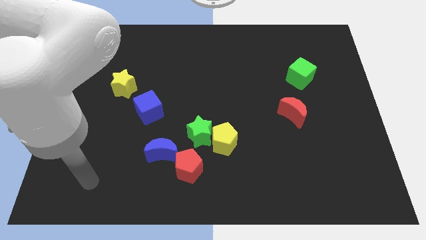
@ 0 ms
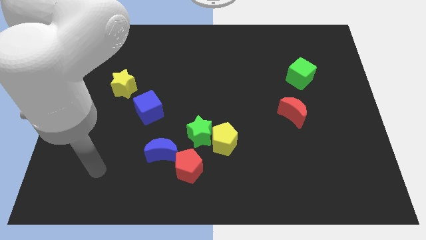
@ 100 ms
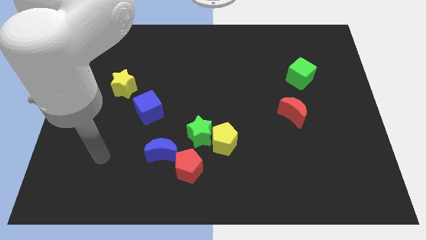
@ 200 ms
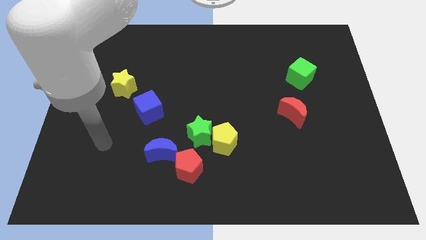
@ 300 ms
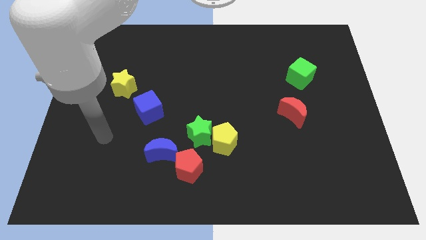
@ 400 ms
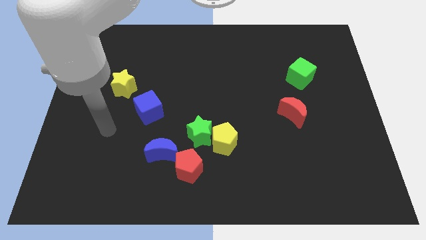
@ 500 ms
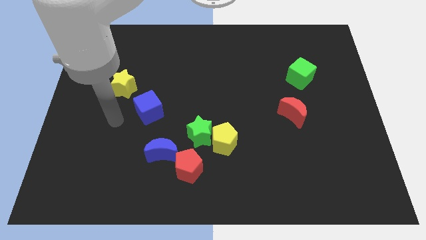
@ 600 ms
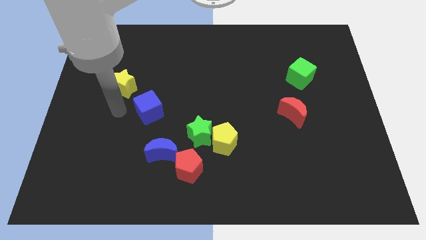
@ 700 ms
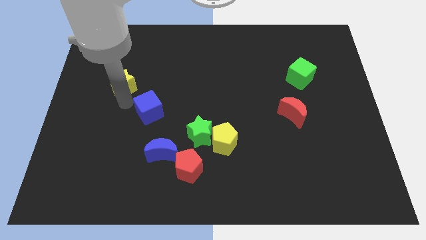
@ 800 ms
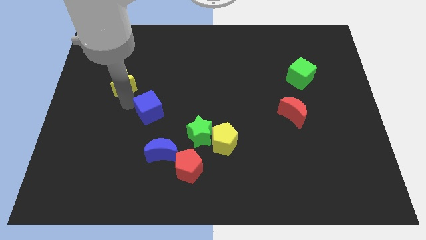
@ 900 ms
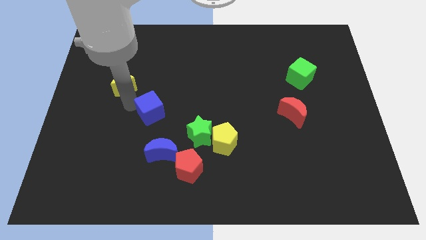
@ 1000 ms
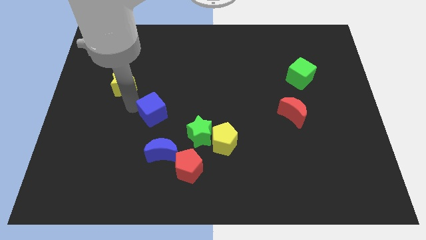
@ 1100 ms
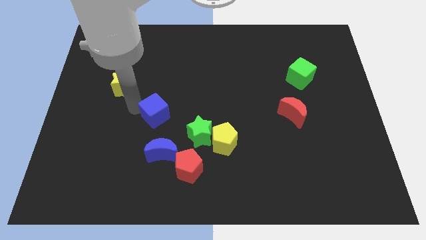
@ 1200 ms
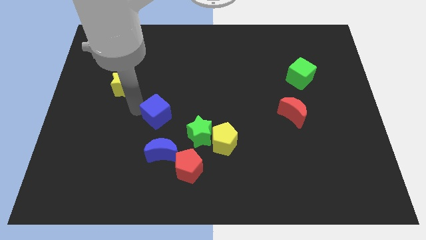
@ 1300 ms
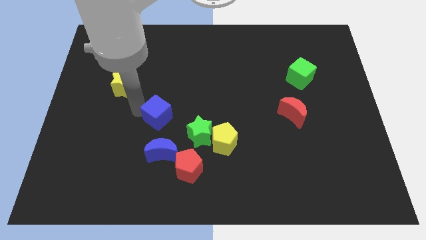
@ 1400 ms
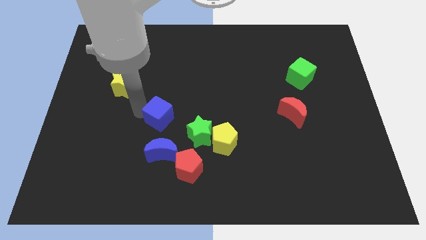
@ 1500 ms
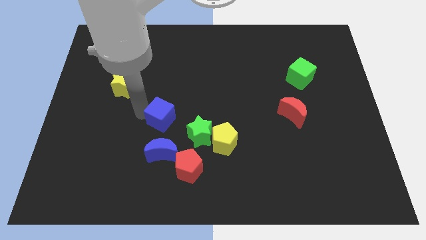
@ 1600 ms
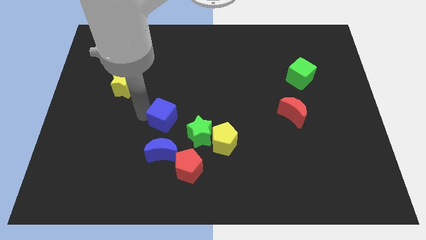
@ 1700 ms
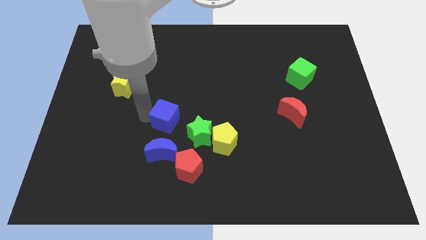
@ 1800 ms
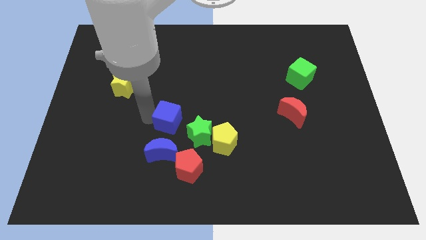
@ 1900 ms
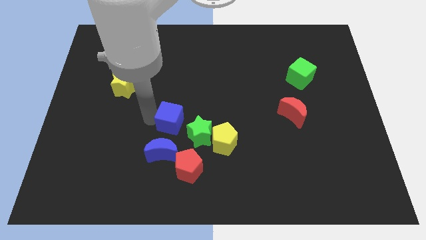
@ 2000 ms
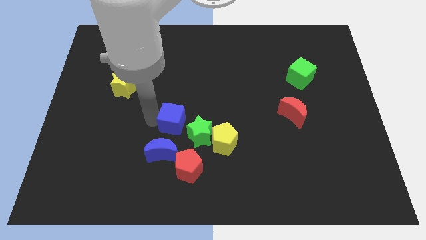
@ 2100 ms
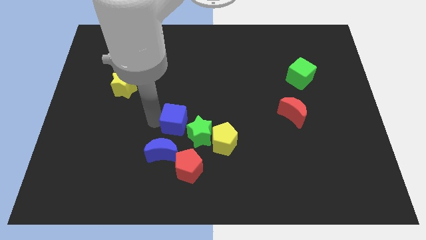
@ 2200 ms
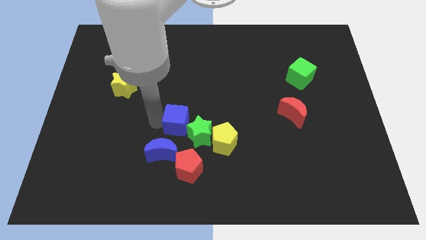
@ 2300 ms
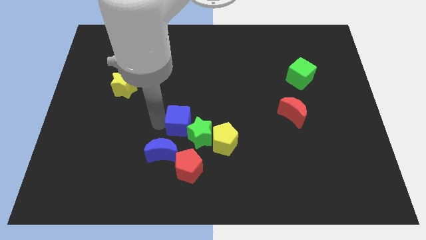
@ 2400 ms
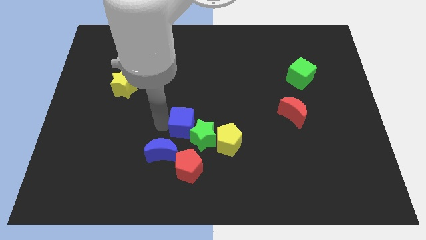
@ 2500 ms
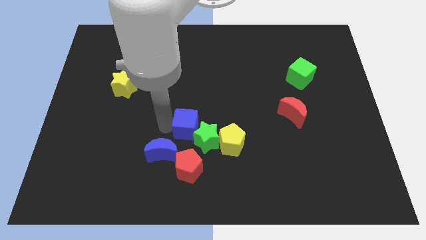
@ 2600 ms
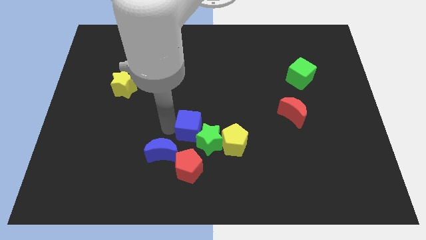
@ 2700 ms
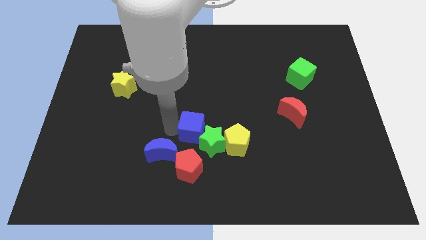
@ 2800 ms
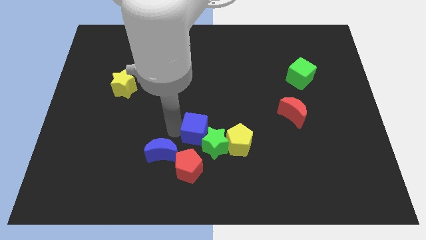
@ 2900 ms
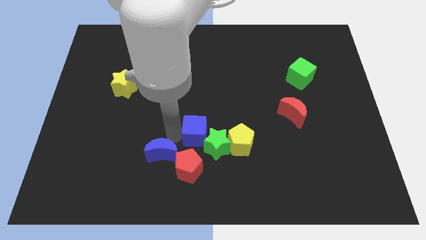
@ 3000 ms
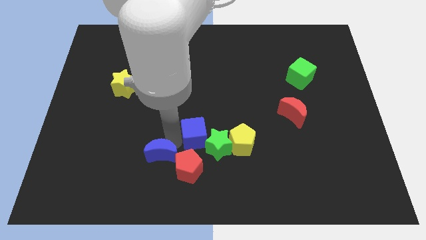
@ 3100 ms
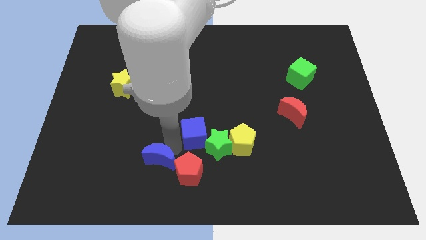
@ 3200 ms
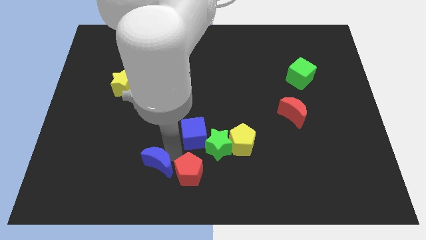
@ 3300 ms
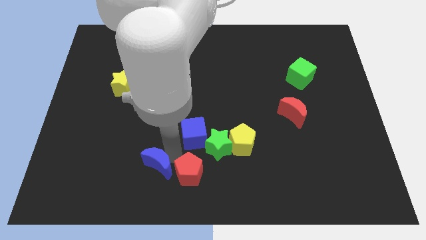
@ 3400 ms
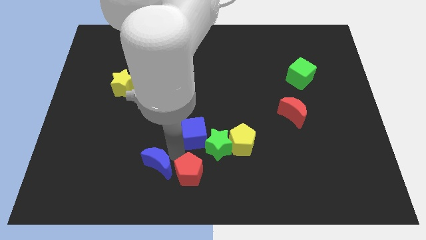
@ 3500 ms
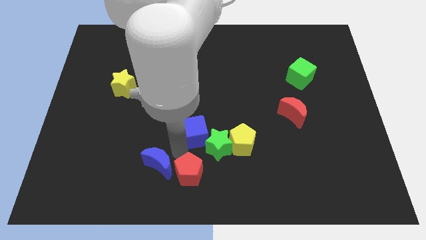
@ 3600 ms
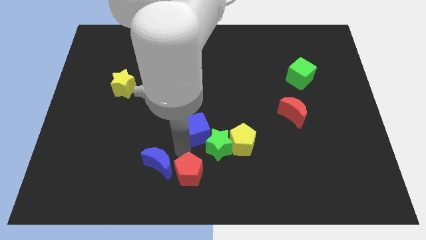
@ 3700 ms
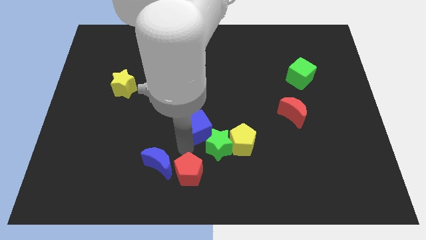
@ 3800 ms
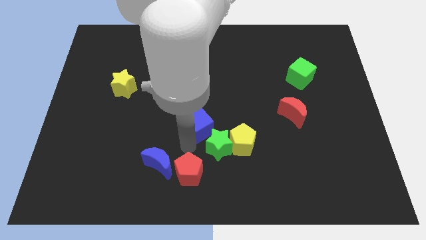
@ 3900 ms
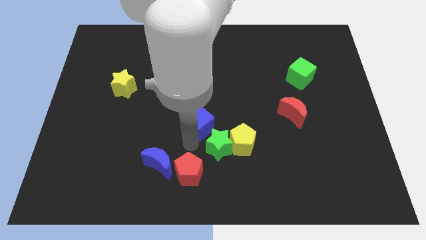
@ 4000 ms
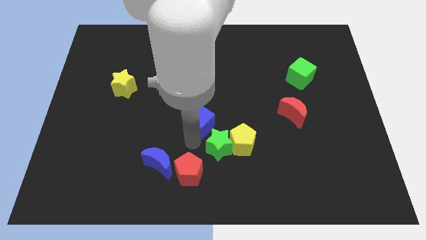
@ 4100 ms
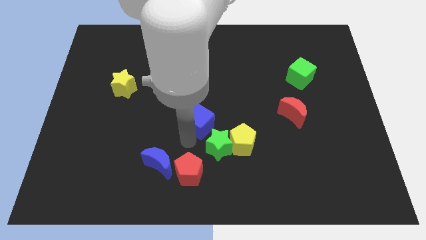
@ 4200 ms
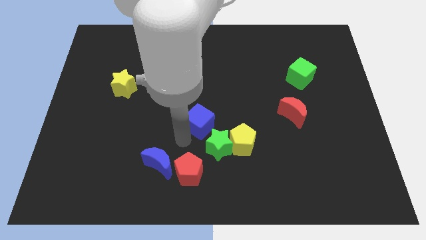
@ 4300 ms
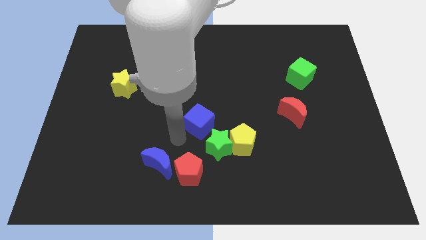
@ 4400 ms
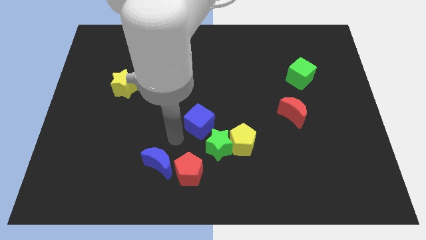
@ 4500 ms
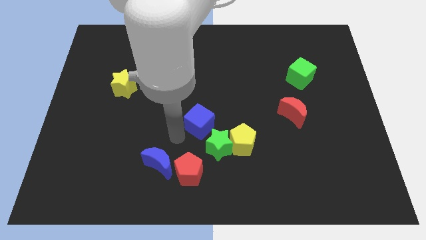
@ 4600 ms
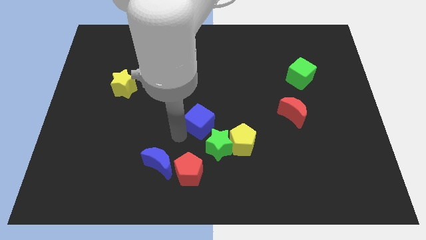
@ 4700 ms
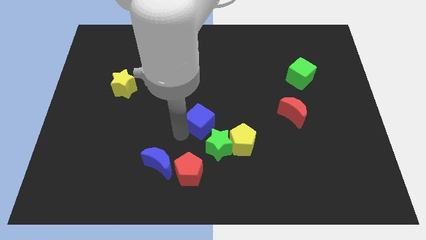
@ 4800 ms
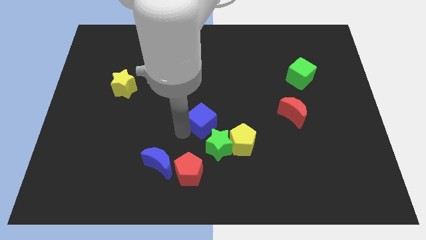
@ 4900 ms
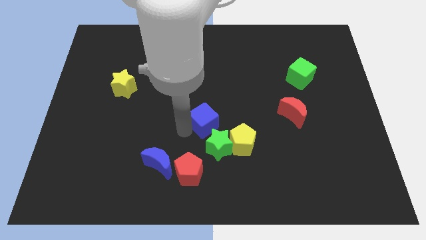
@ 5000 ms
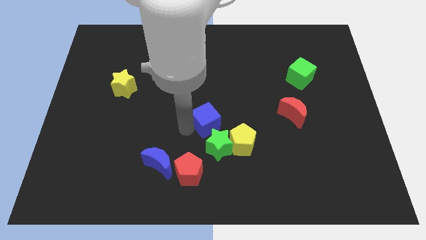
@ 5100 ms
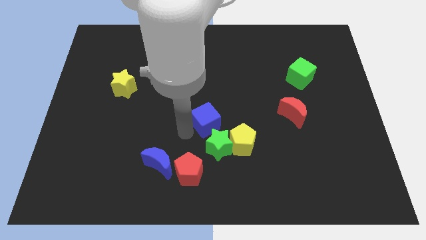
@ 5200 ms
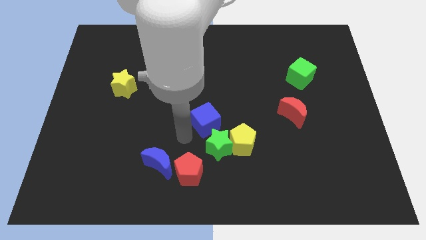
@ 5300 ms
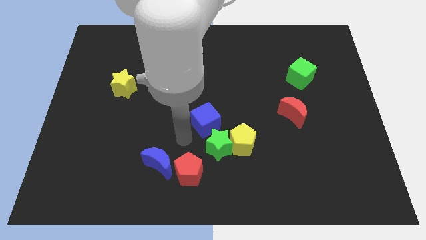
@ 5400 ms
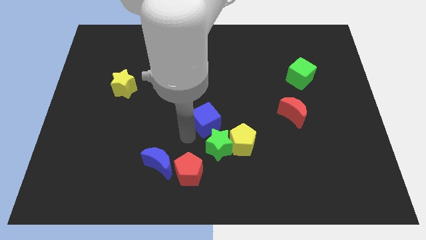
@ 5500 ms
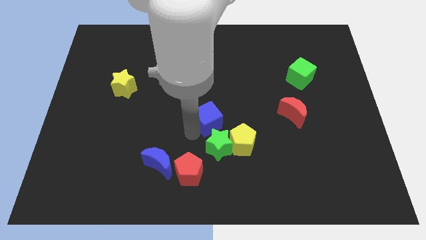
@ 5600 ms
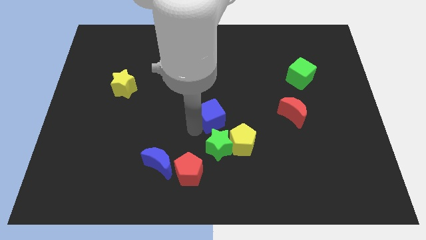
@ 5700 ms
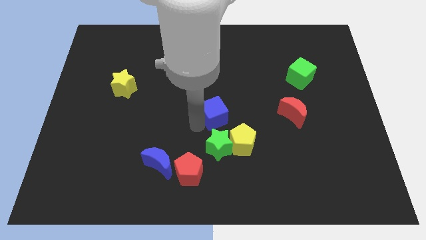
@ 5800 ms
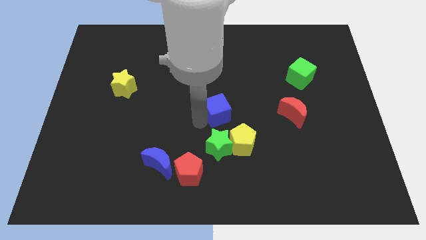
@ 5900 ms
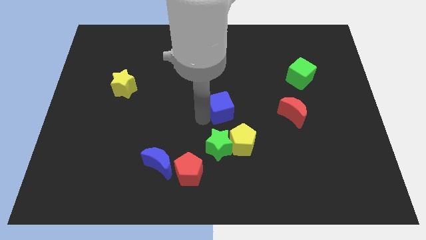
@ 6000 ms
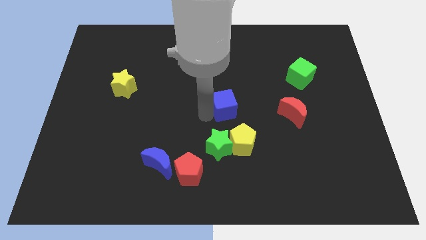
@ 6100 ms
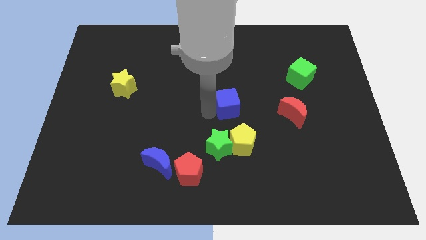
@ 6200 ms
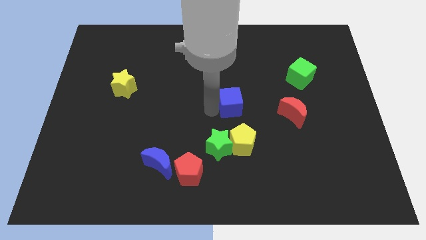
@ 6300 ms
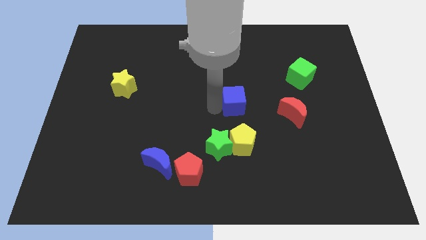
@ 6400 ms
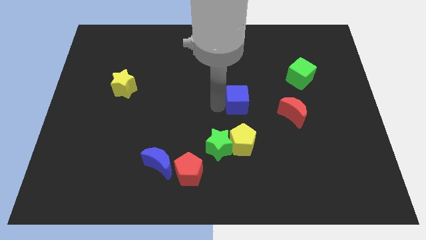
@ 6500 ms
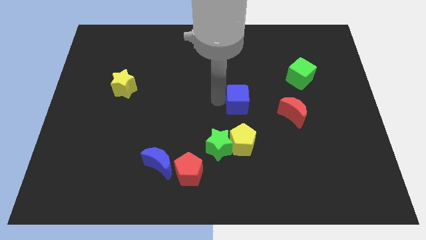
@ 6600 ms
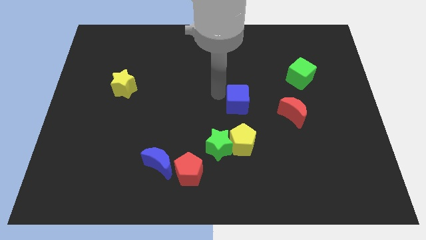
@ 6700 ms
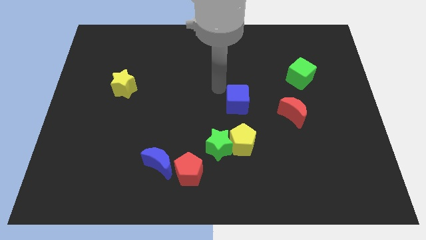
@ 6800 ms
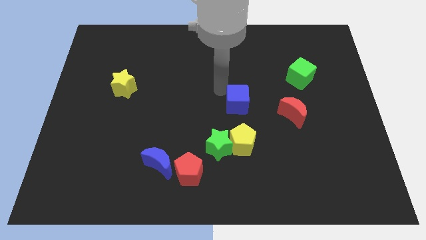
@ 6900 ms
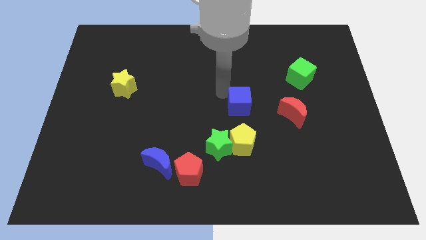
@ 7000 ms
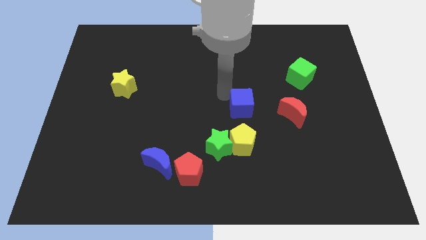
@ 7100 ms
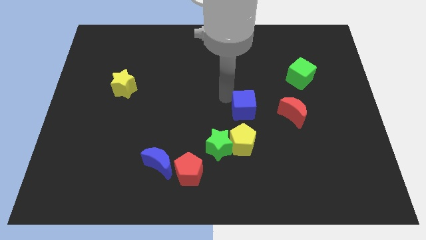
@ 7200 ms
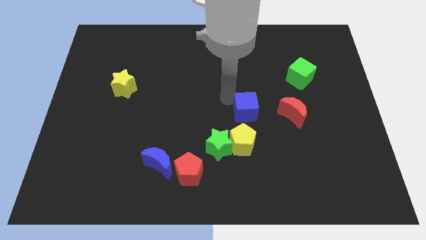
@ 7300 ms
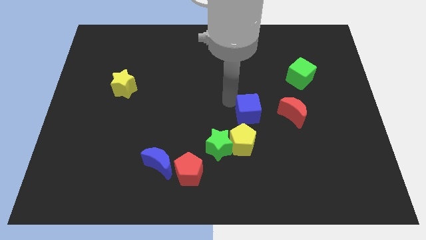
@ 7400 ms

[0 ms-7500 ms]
slide the blue cube diagonally up and to the right of the yellow pentagon
